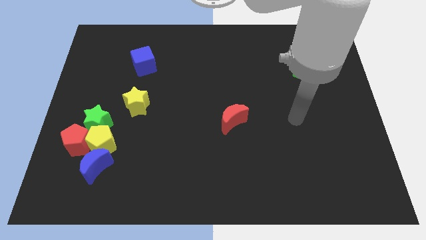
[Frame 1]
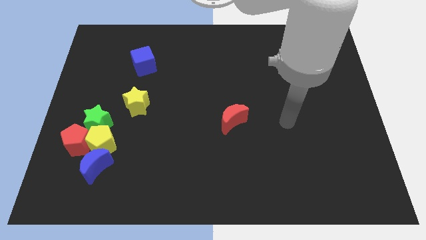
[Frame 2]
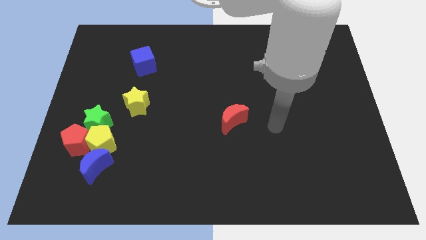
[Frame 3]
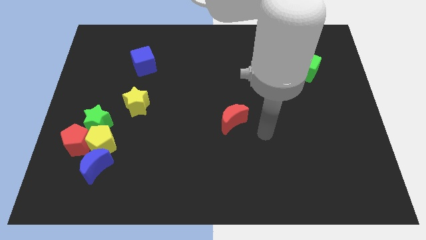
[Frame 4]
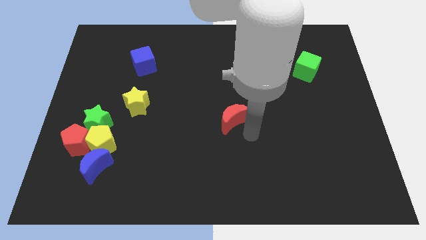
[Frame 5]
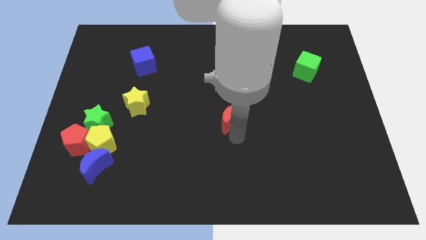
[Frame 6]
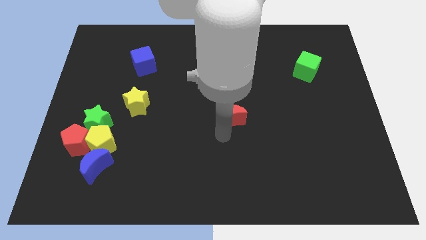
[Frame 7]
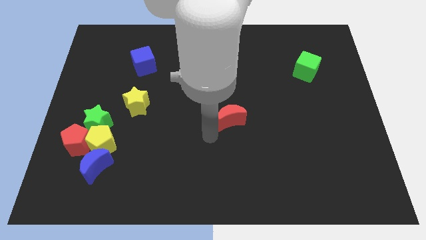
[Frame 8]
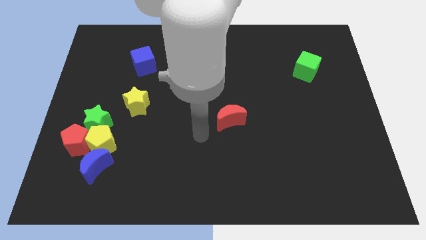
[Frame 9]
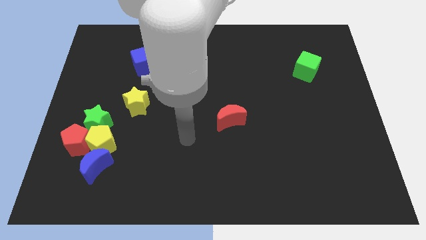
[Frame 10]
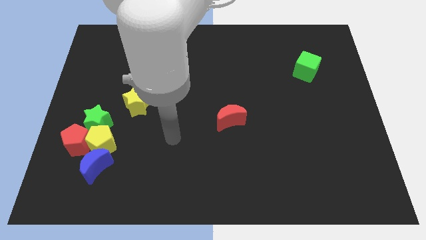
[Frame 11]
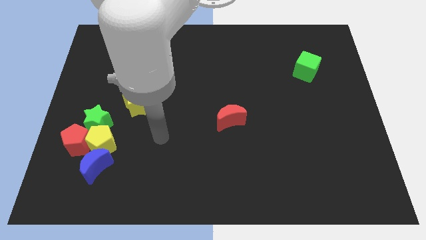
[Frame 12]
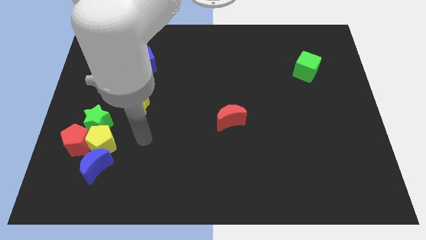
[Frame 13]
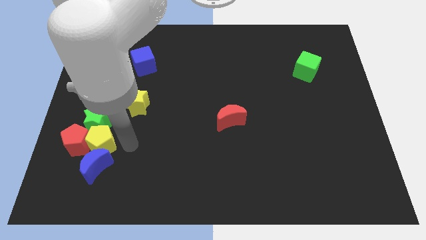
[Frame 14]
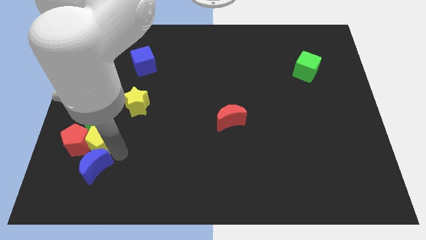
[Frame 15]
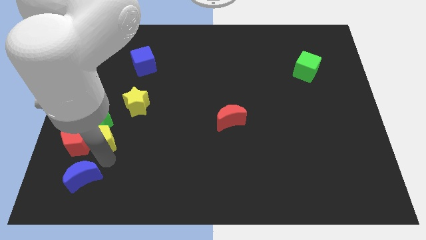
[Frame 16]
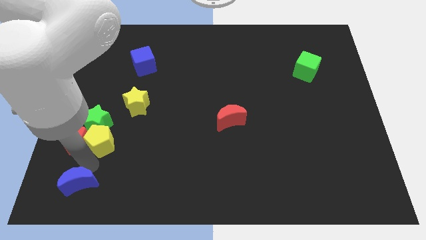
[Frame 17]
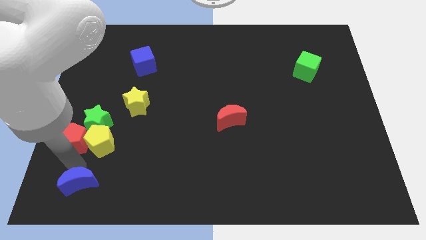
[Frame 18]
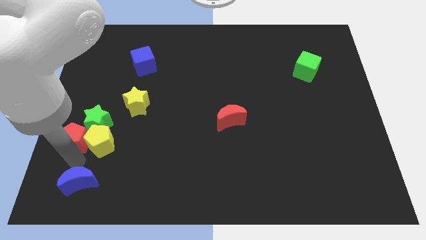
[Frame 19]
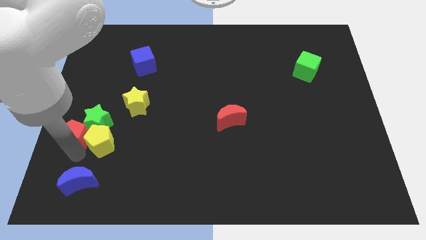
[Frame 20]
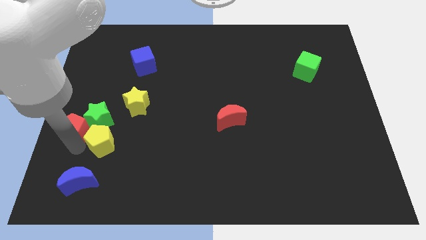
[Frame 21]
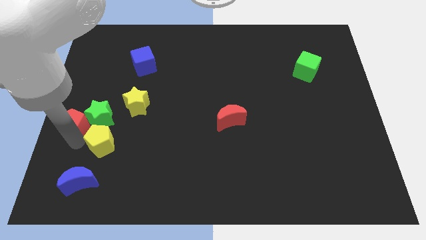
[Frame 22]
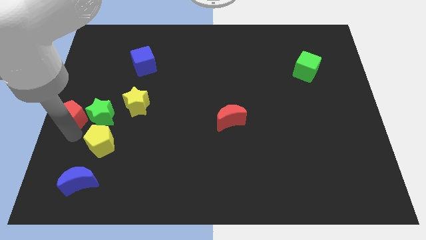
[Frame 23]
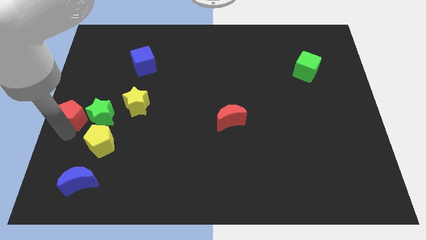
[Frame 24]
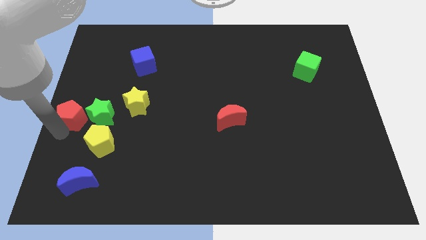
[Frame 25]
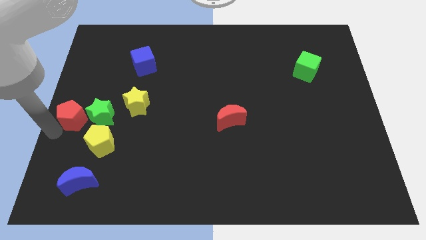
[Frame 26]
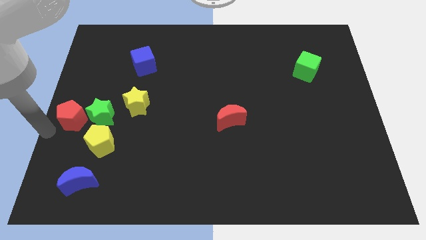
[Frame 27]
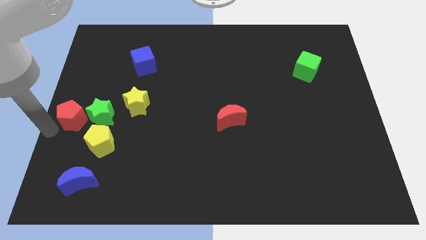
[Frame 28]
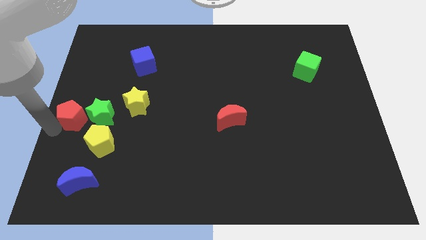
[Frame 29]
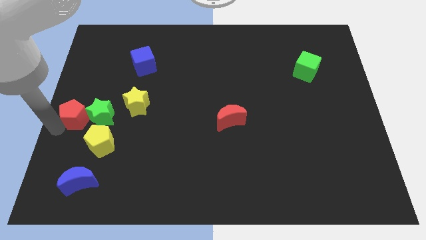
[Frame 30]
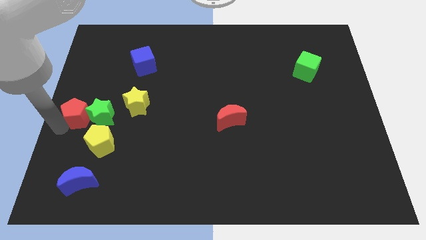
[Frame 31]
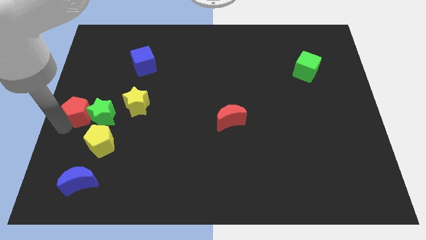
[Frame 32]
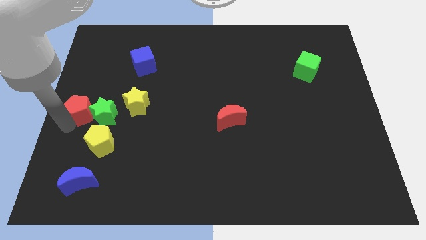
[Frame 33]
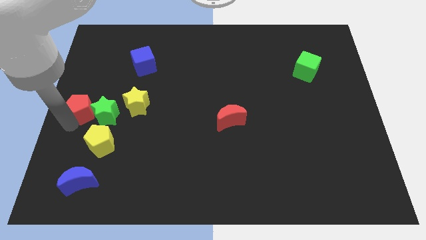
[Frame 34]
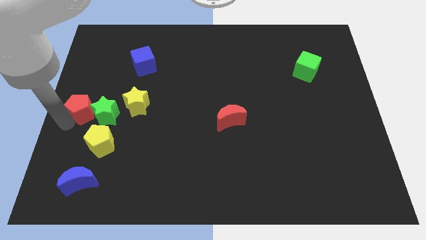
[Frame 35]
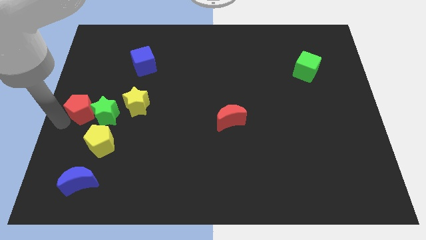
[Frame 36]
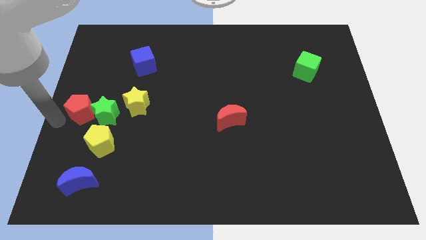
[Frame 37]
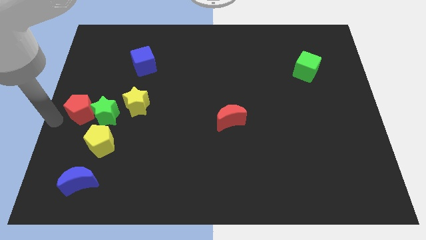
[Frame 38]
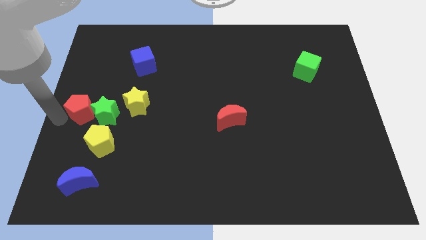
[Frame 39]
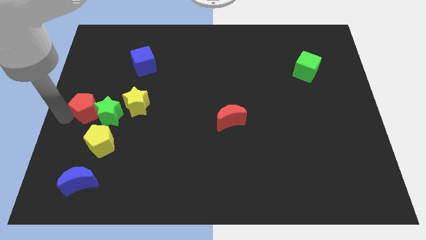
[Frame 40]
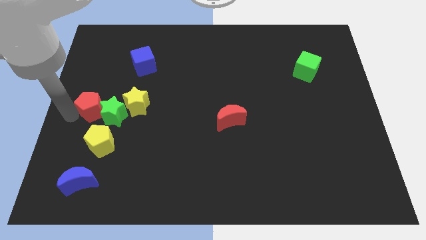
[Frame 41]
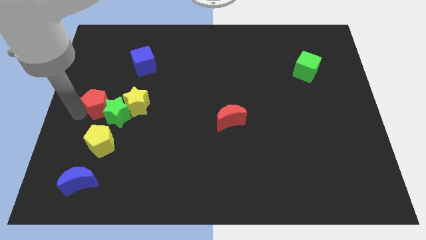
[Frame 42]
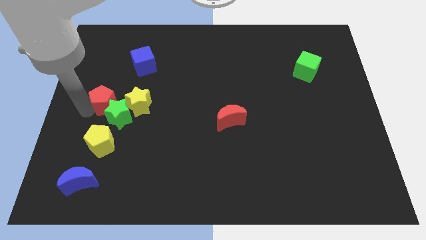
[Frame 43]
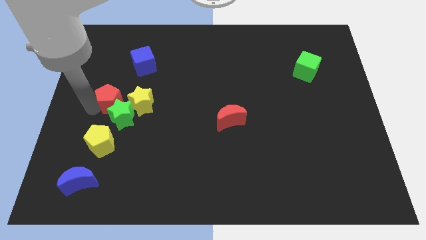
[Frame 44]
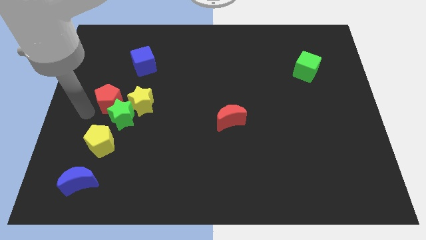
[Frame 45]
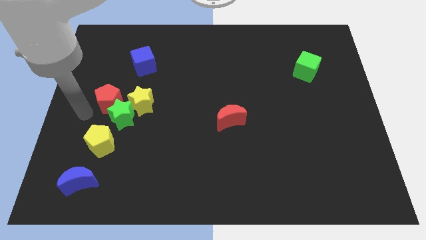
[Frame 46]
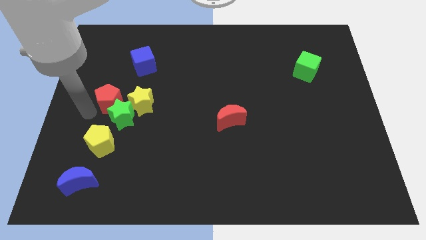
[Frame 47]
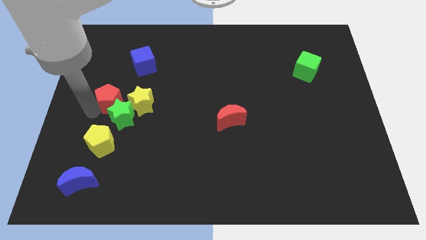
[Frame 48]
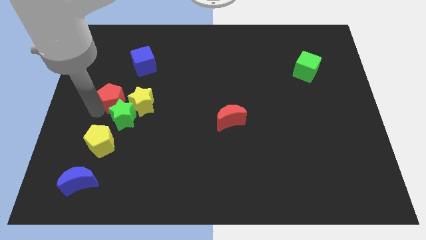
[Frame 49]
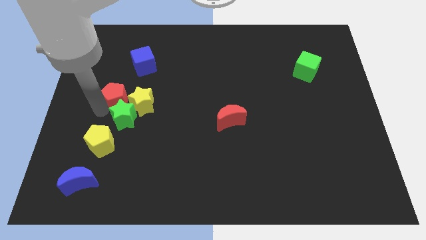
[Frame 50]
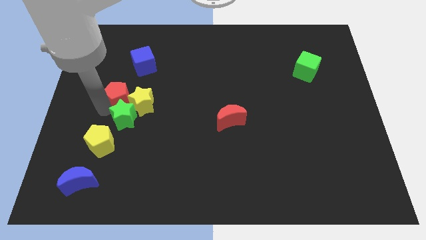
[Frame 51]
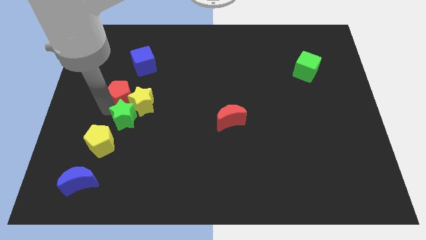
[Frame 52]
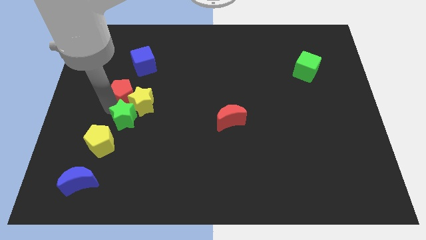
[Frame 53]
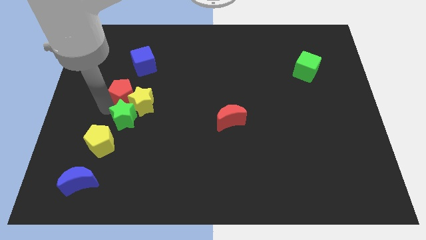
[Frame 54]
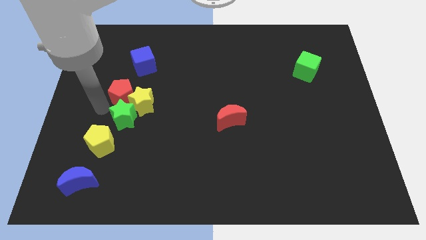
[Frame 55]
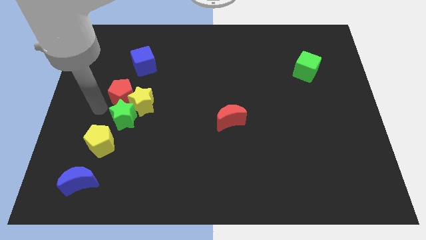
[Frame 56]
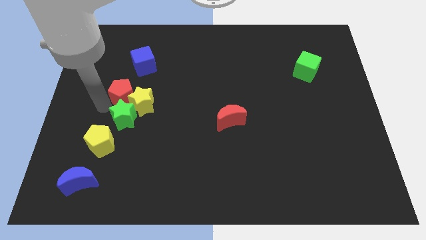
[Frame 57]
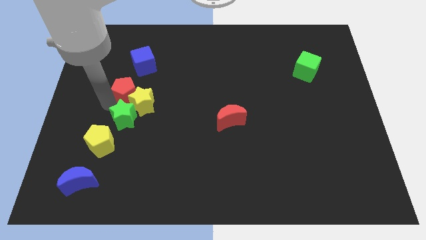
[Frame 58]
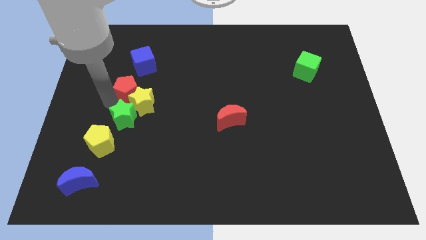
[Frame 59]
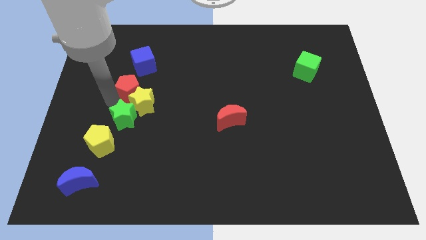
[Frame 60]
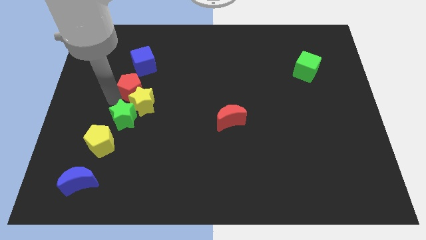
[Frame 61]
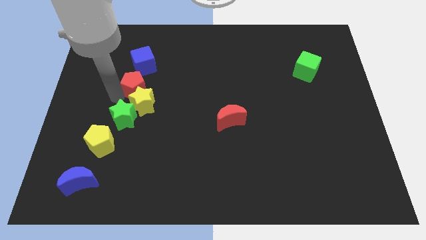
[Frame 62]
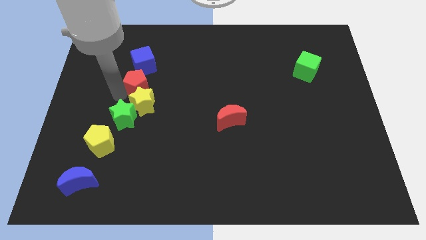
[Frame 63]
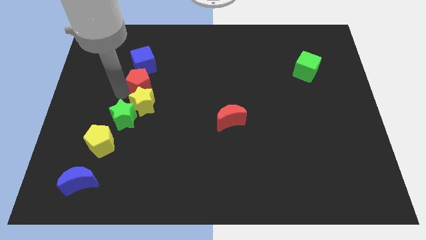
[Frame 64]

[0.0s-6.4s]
push the red pentagon to the top right of the yellow star

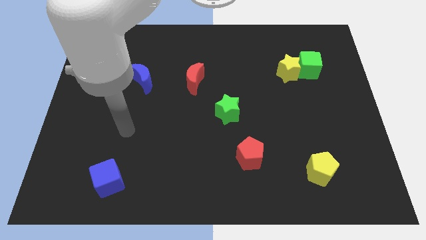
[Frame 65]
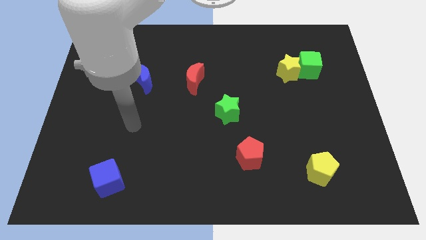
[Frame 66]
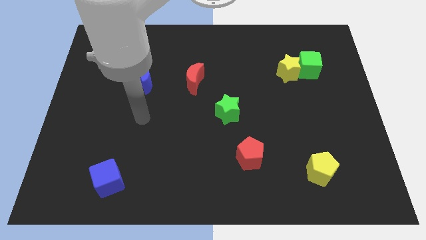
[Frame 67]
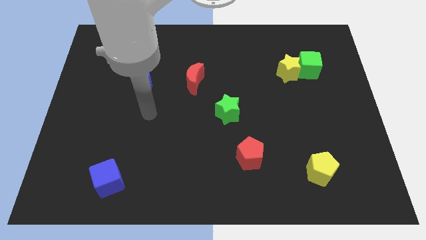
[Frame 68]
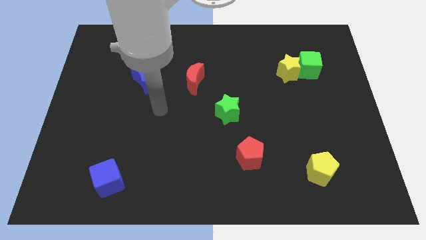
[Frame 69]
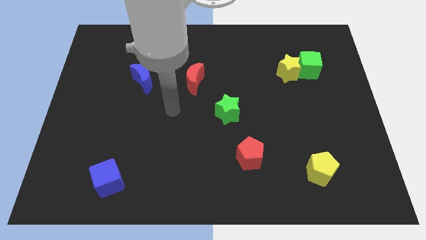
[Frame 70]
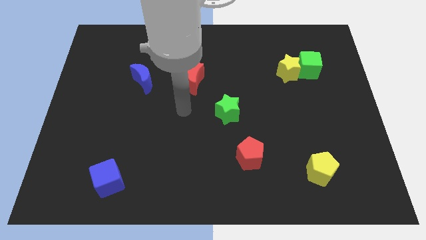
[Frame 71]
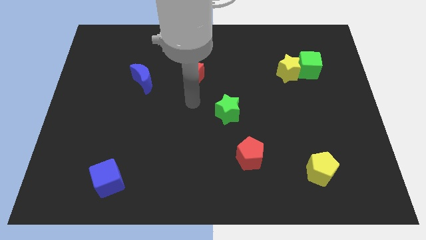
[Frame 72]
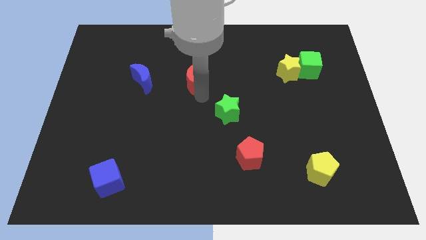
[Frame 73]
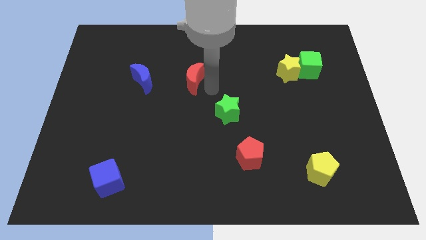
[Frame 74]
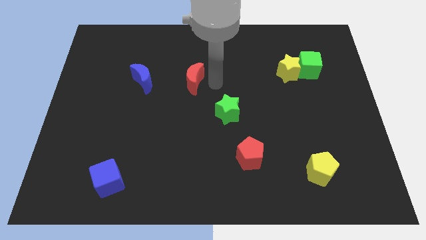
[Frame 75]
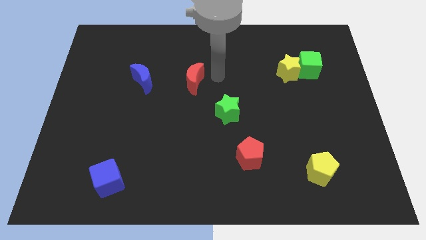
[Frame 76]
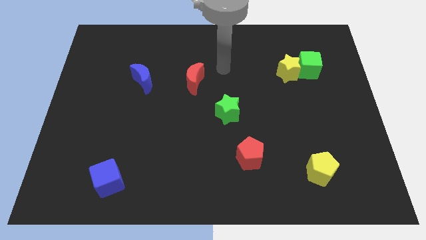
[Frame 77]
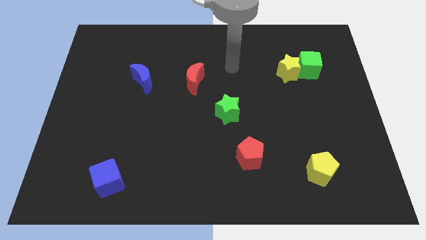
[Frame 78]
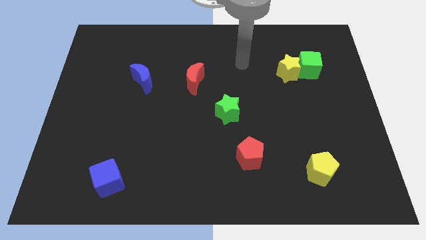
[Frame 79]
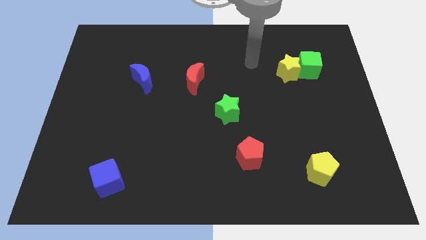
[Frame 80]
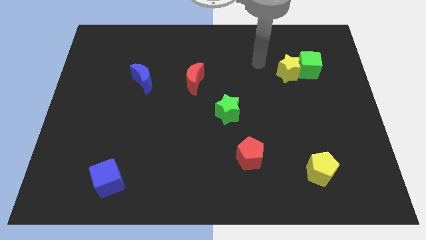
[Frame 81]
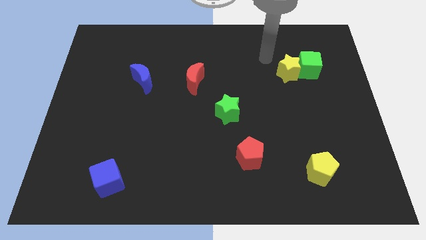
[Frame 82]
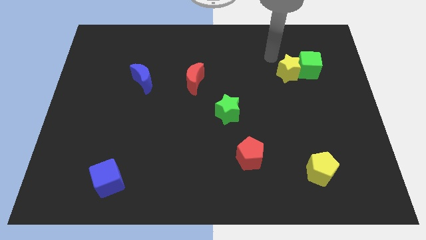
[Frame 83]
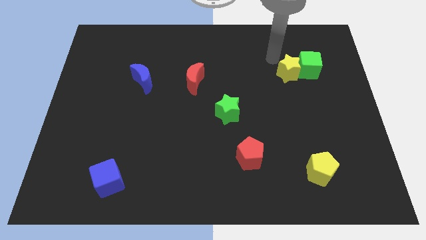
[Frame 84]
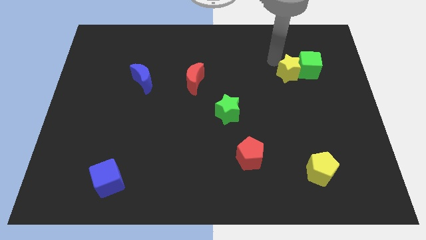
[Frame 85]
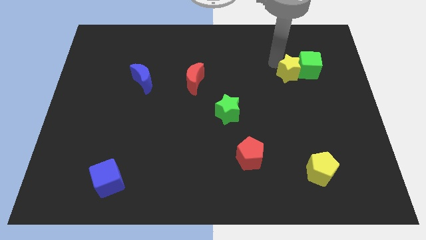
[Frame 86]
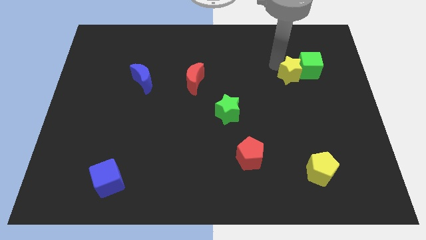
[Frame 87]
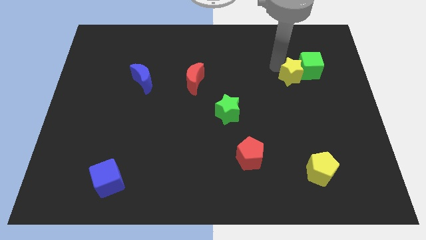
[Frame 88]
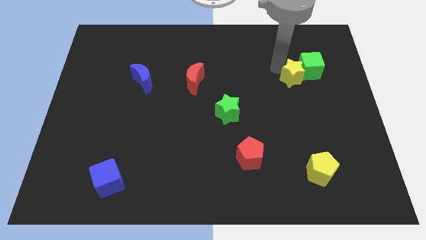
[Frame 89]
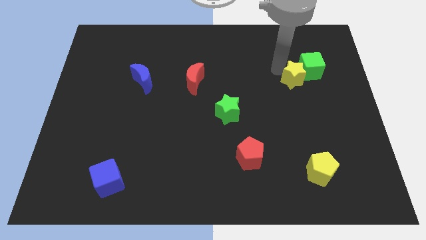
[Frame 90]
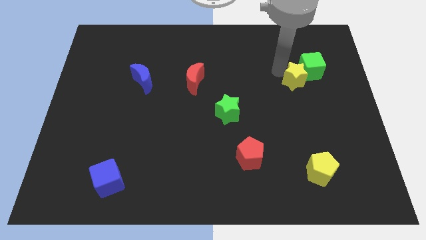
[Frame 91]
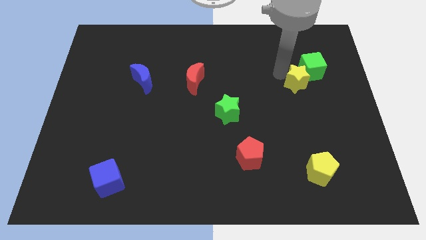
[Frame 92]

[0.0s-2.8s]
slide the yellow star to the bottom of the green cube
